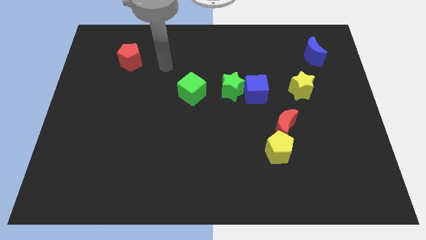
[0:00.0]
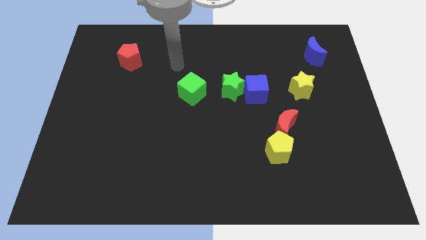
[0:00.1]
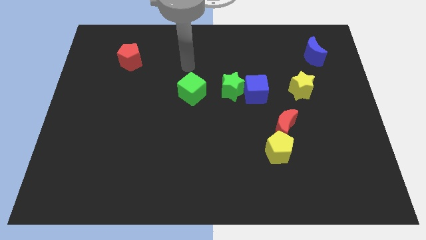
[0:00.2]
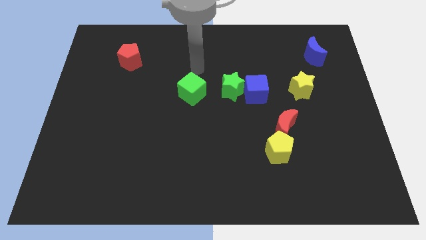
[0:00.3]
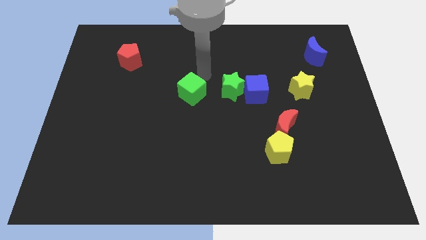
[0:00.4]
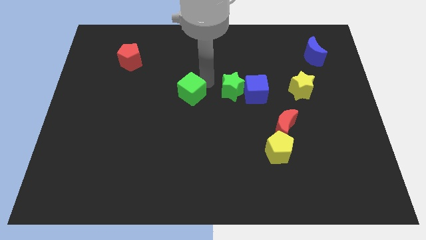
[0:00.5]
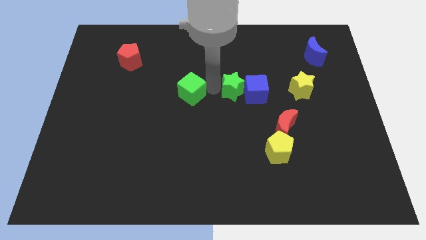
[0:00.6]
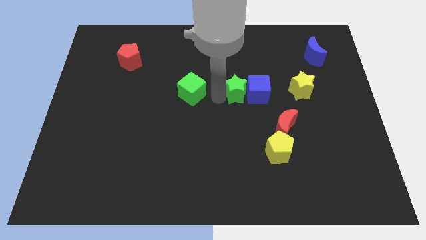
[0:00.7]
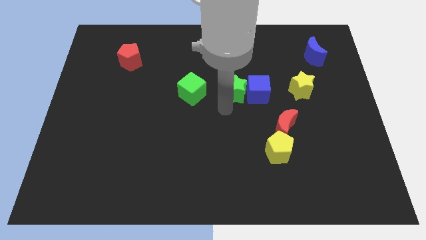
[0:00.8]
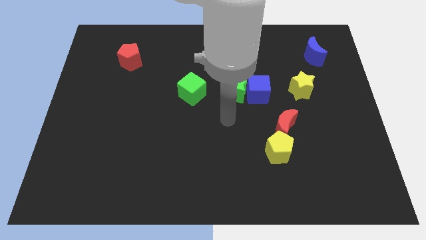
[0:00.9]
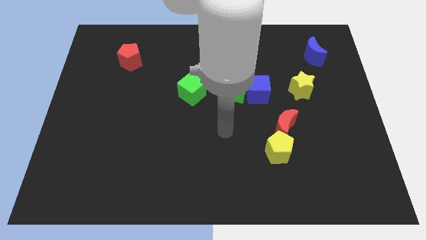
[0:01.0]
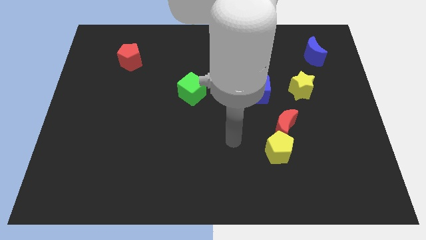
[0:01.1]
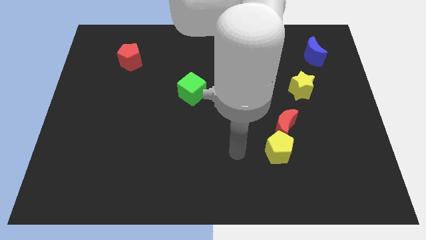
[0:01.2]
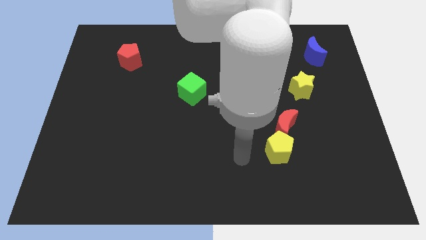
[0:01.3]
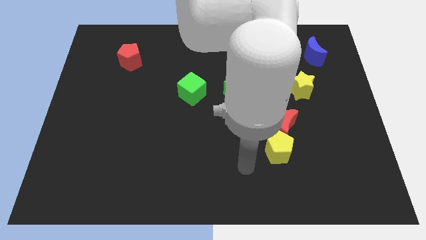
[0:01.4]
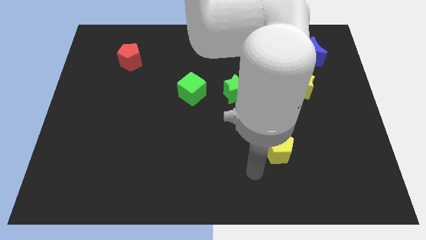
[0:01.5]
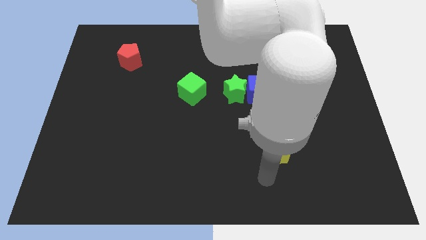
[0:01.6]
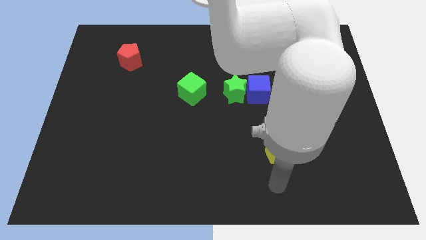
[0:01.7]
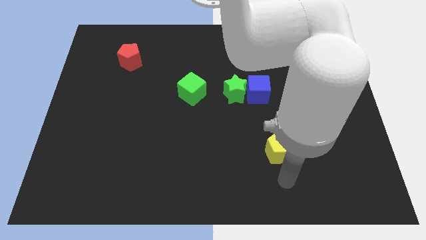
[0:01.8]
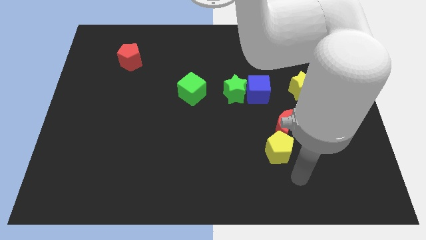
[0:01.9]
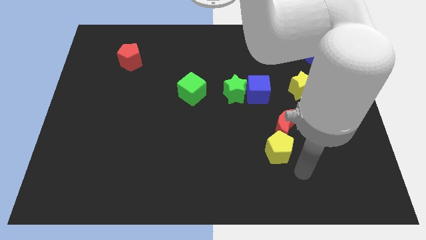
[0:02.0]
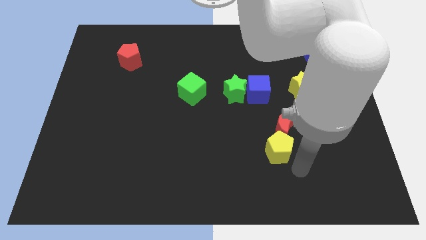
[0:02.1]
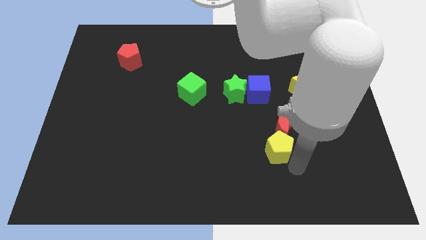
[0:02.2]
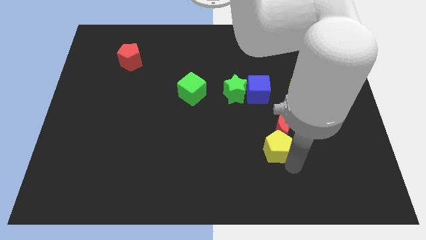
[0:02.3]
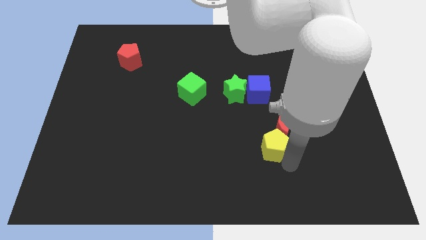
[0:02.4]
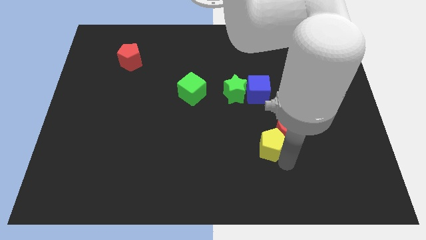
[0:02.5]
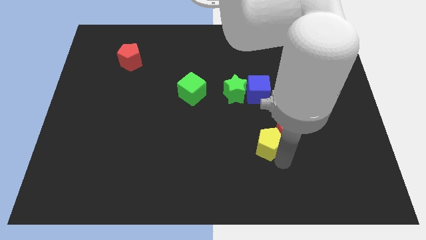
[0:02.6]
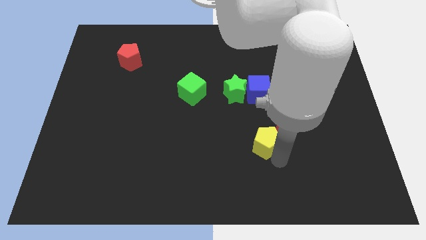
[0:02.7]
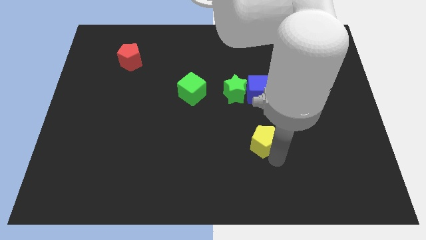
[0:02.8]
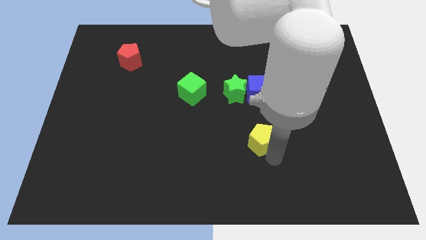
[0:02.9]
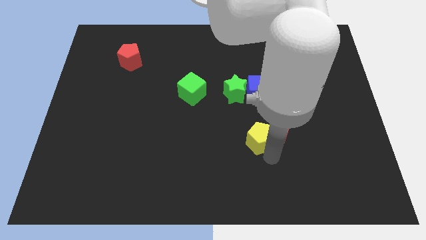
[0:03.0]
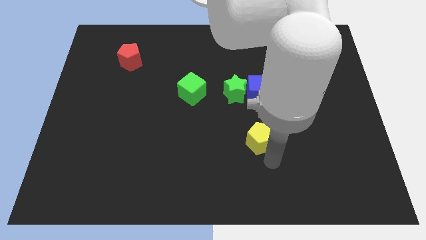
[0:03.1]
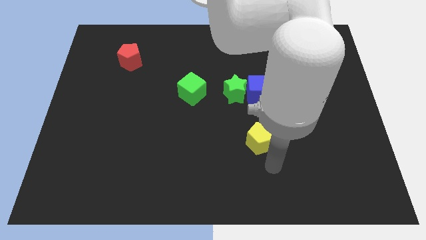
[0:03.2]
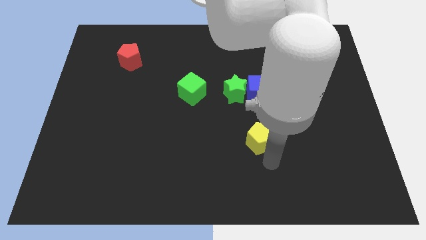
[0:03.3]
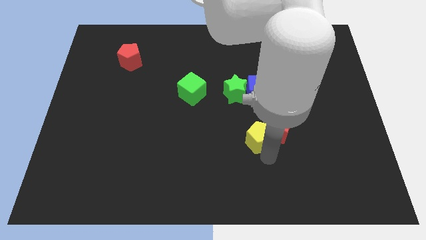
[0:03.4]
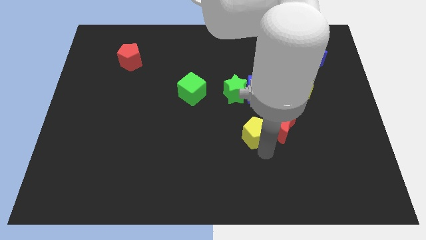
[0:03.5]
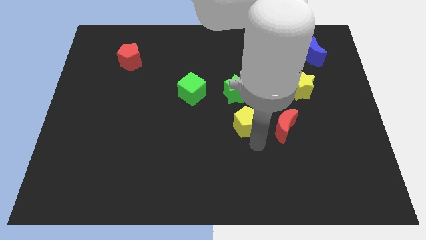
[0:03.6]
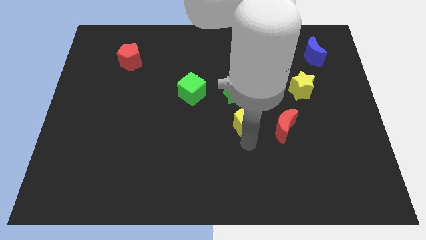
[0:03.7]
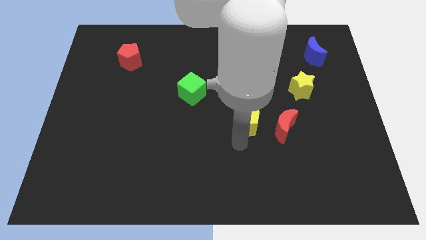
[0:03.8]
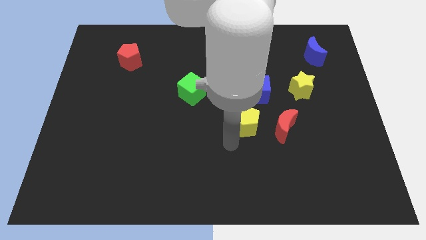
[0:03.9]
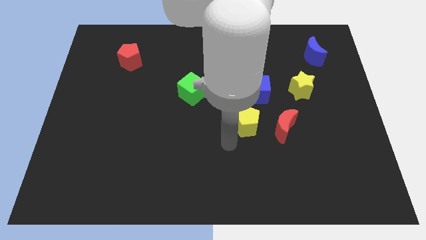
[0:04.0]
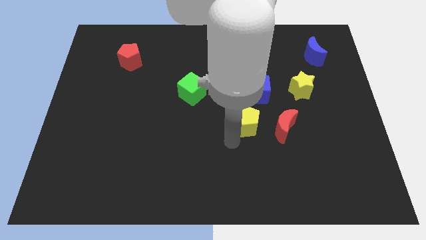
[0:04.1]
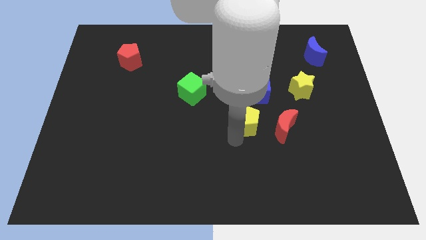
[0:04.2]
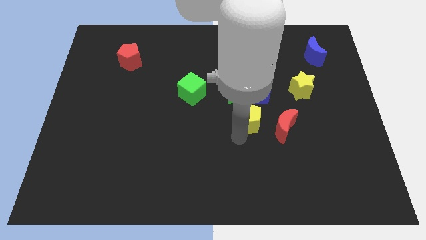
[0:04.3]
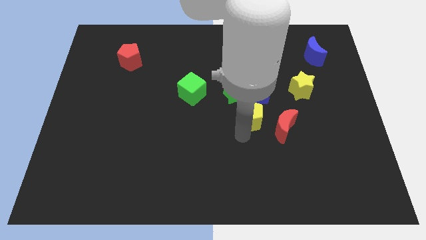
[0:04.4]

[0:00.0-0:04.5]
slide the yellow pentagon upwards somewhat

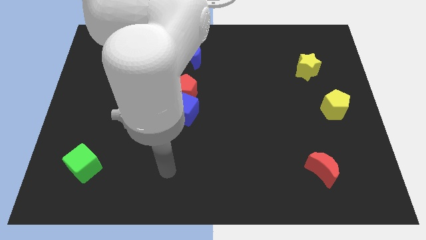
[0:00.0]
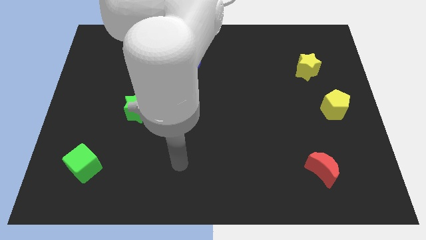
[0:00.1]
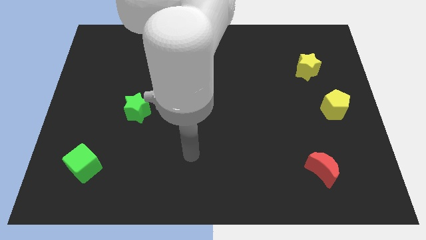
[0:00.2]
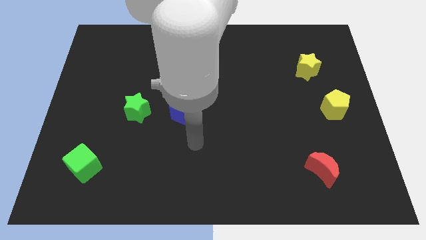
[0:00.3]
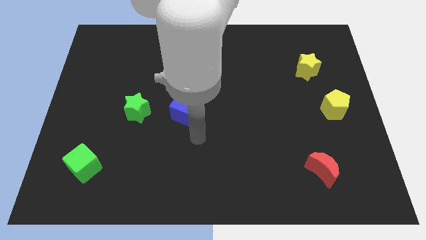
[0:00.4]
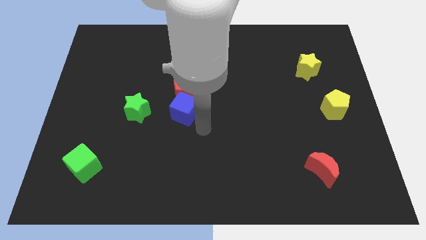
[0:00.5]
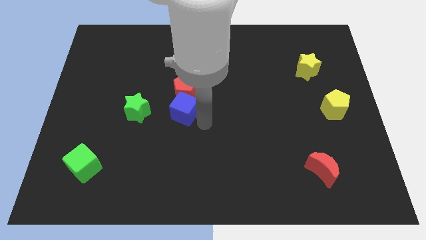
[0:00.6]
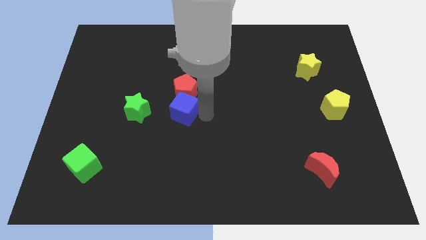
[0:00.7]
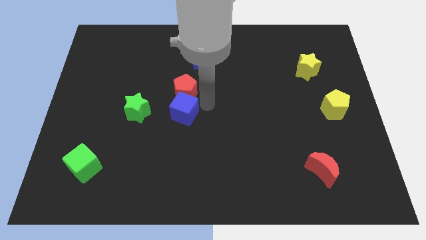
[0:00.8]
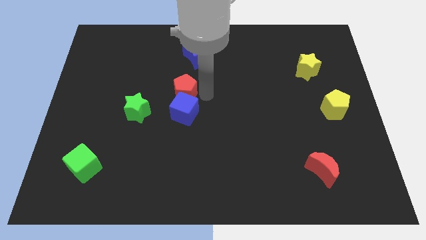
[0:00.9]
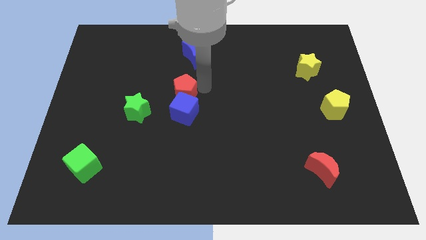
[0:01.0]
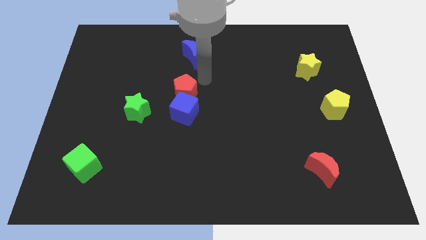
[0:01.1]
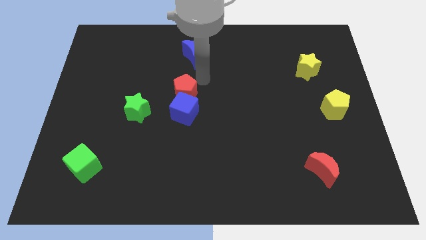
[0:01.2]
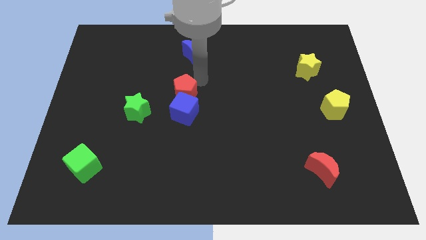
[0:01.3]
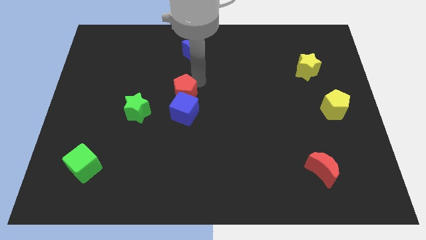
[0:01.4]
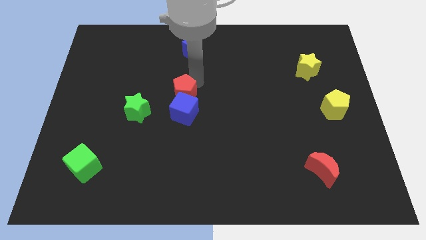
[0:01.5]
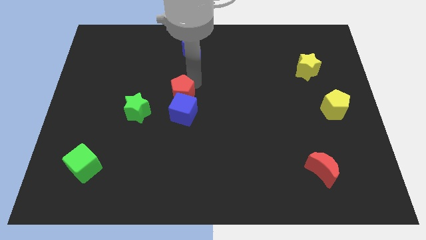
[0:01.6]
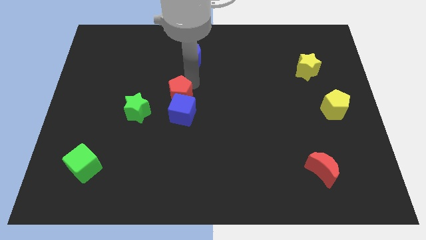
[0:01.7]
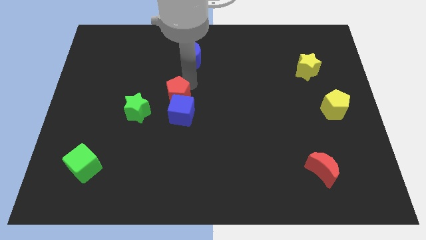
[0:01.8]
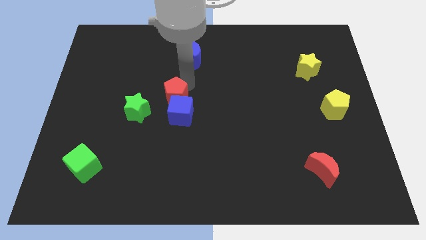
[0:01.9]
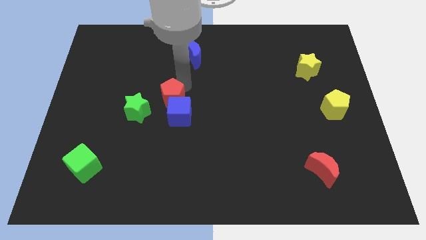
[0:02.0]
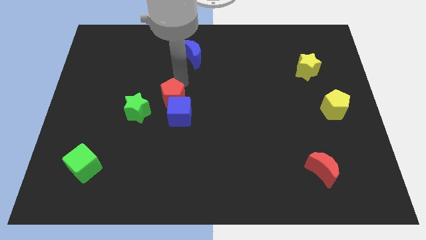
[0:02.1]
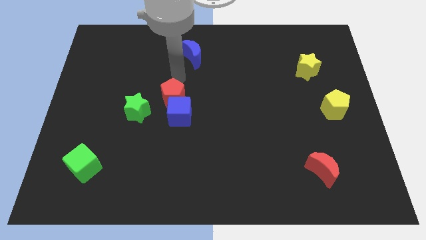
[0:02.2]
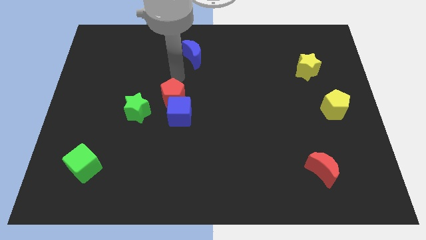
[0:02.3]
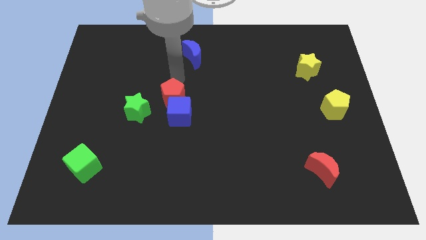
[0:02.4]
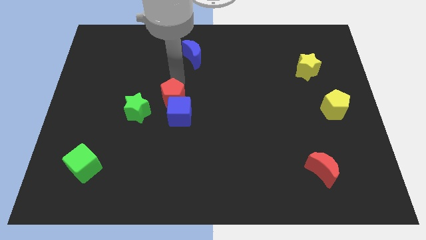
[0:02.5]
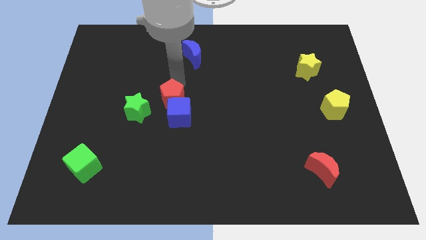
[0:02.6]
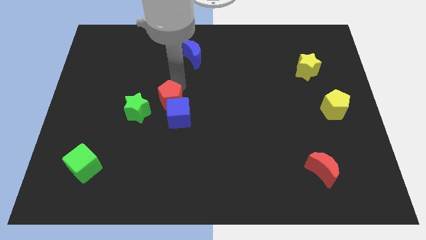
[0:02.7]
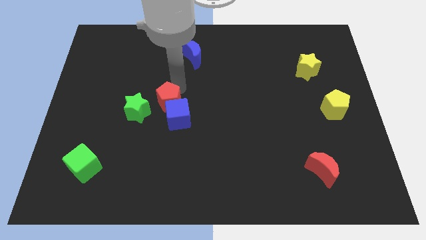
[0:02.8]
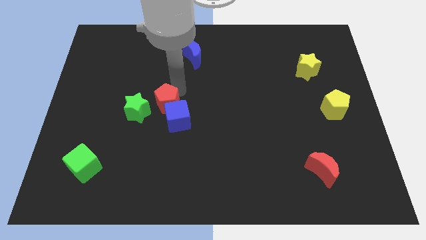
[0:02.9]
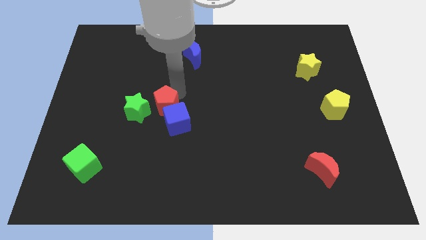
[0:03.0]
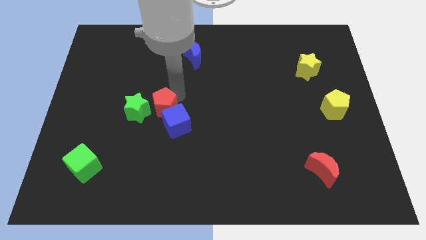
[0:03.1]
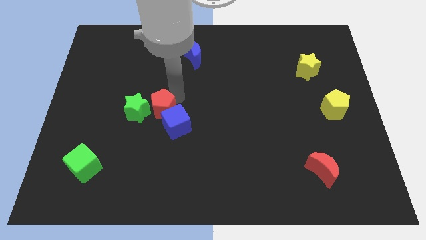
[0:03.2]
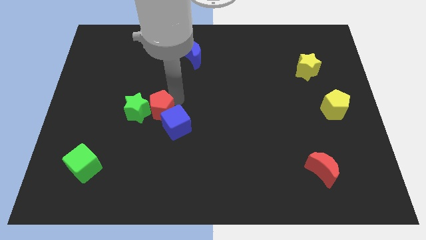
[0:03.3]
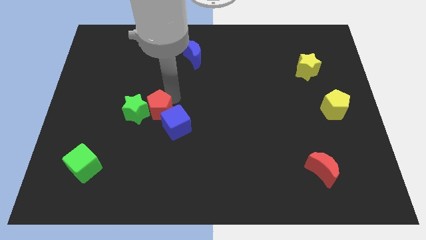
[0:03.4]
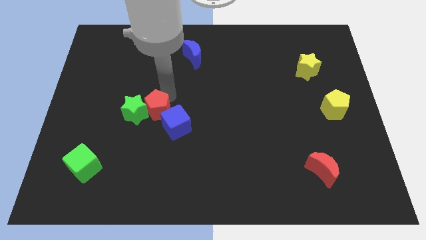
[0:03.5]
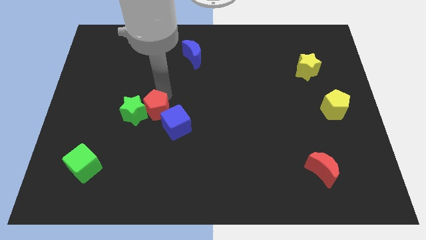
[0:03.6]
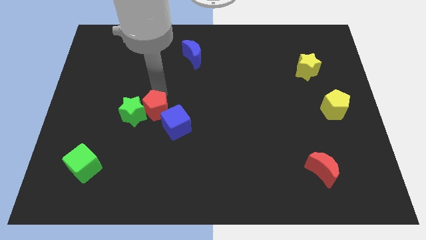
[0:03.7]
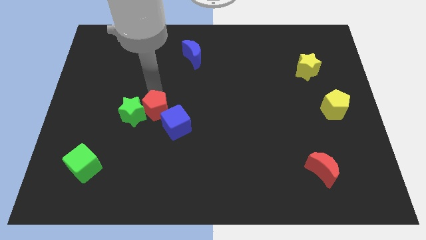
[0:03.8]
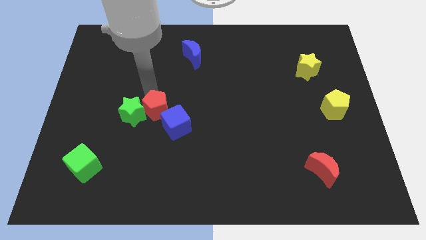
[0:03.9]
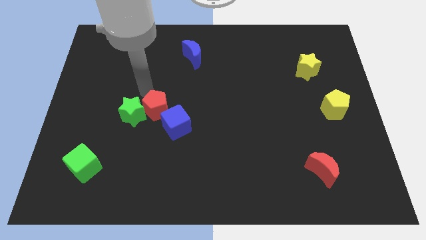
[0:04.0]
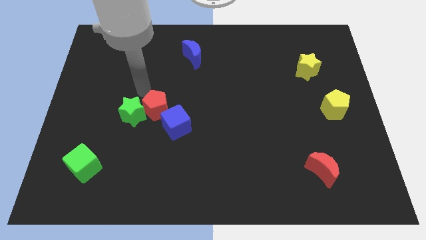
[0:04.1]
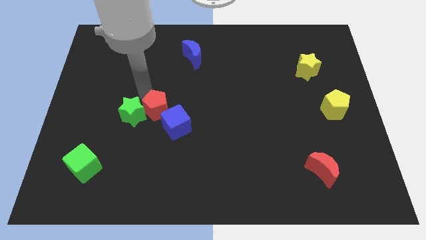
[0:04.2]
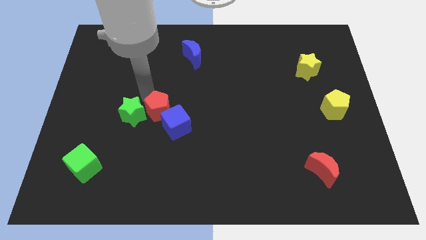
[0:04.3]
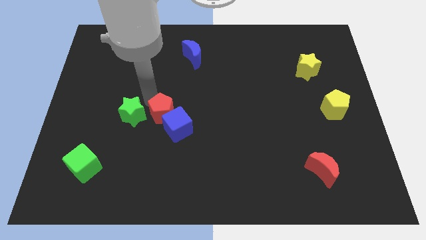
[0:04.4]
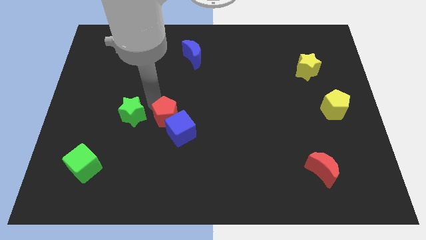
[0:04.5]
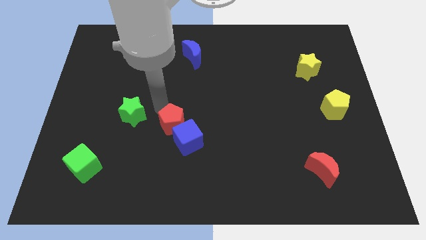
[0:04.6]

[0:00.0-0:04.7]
push the red pentagon down a bit
